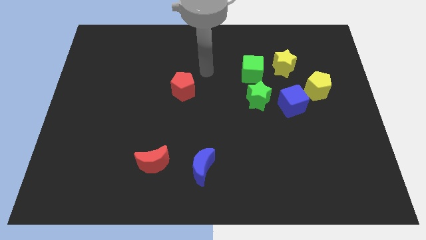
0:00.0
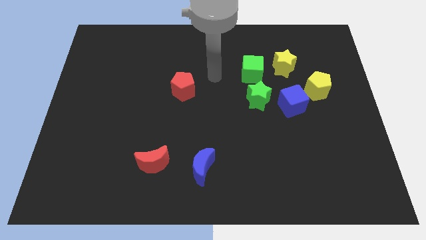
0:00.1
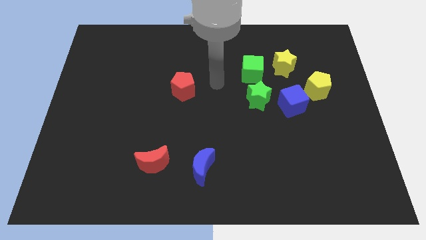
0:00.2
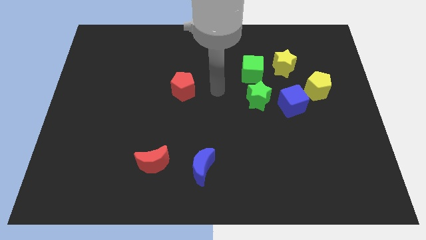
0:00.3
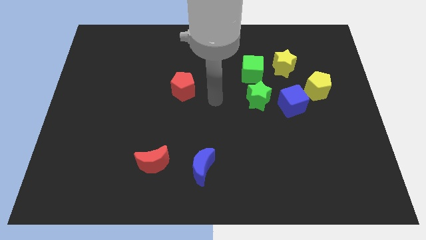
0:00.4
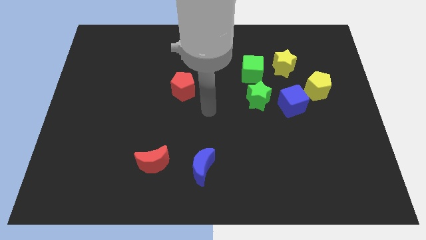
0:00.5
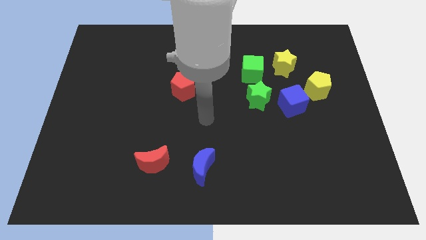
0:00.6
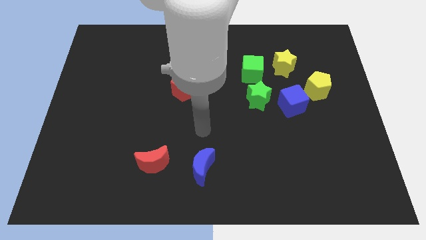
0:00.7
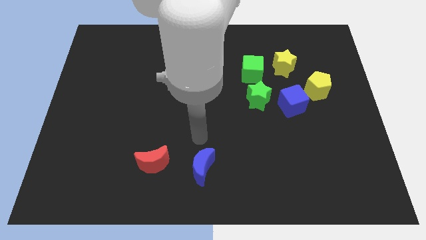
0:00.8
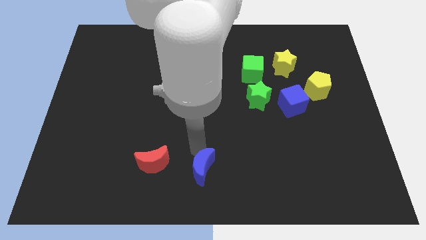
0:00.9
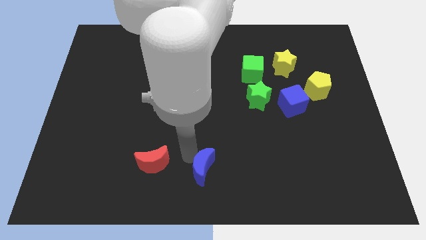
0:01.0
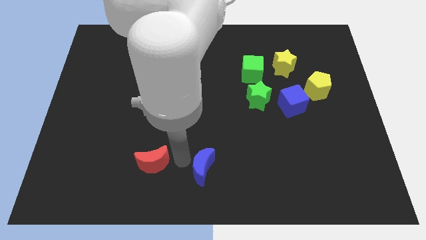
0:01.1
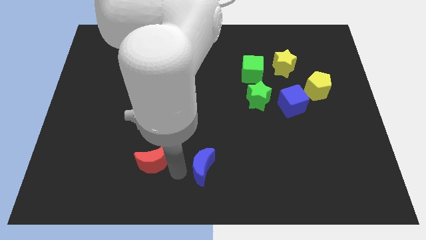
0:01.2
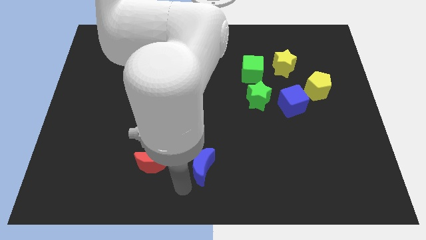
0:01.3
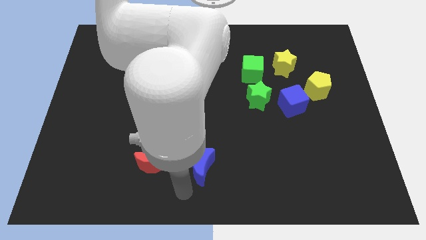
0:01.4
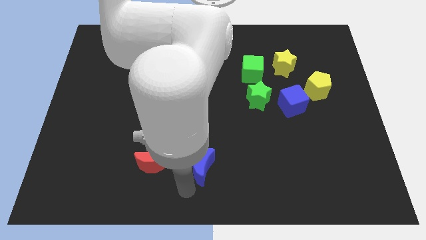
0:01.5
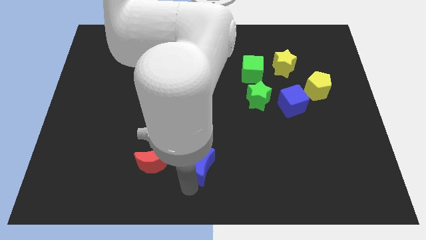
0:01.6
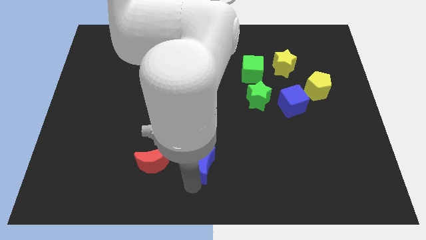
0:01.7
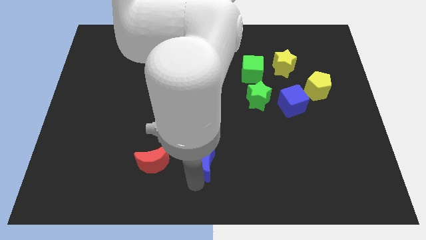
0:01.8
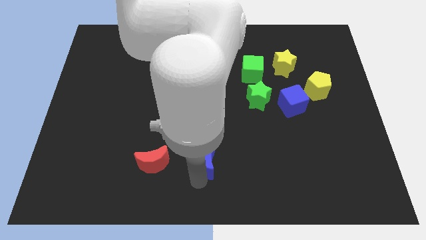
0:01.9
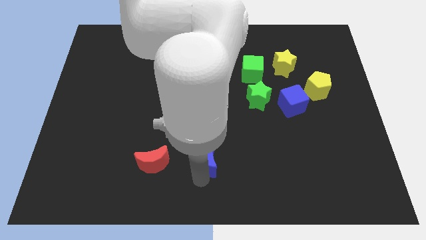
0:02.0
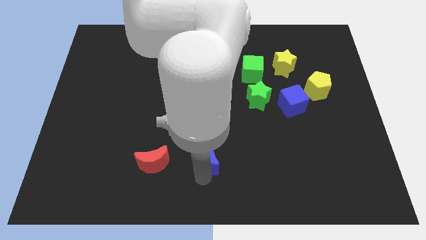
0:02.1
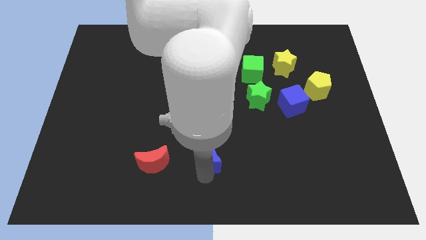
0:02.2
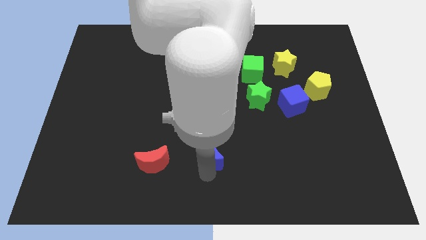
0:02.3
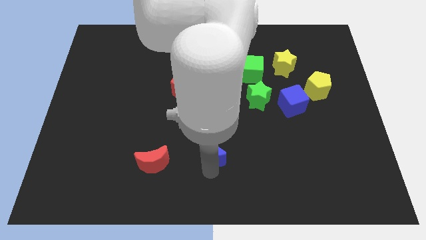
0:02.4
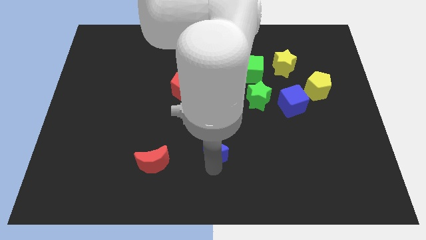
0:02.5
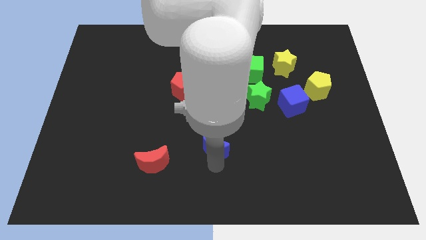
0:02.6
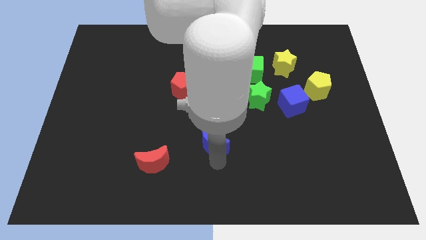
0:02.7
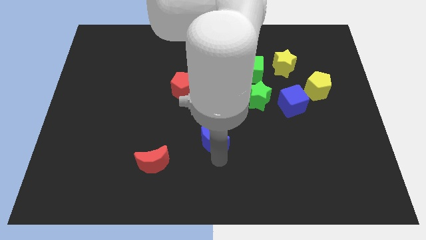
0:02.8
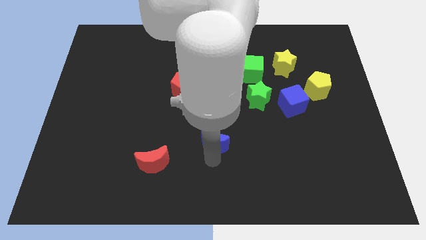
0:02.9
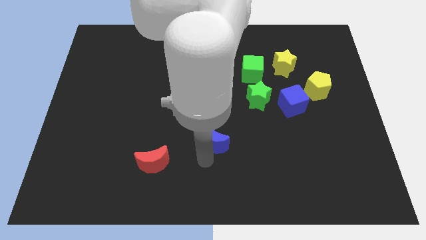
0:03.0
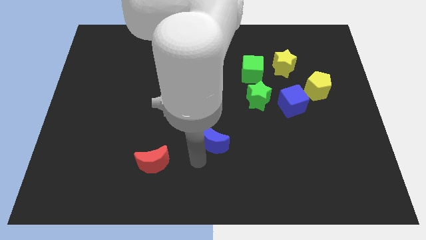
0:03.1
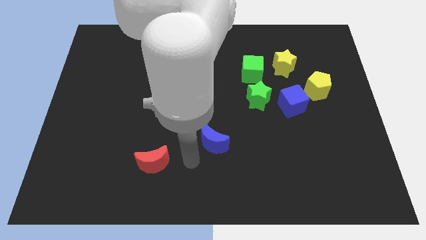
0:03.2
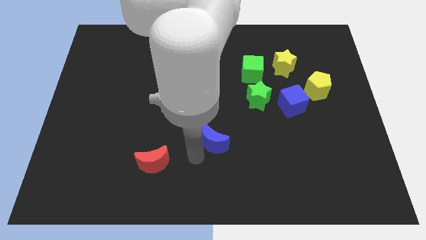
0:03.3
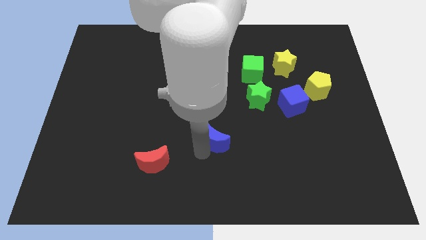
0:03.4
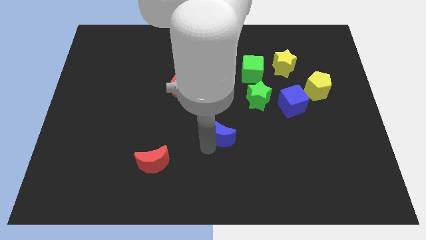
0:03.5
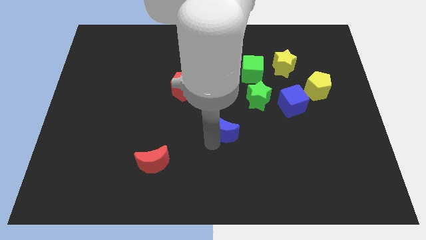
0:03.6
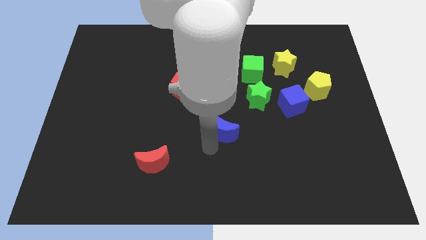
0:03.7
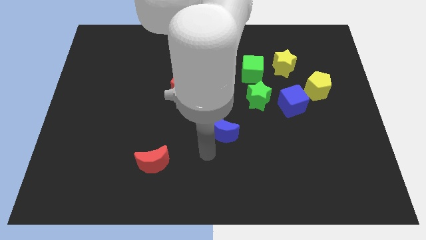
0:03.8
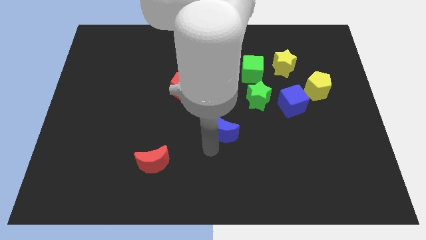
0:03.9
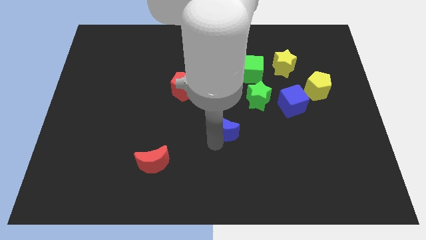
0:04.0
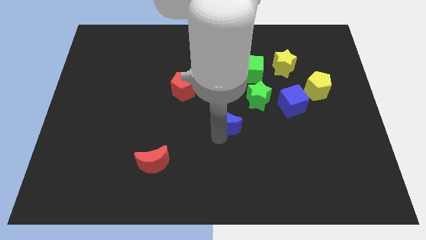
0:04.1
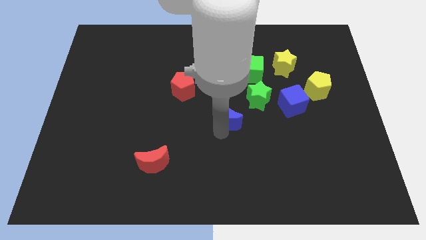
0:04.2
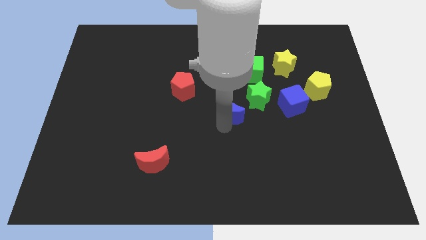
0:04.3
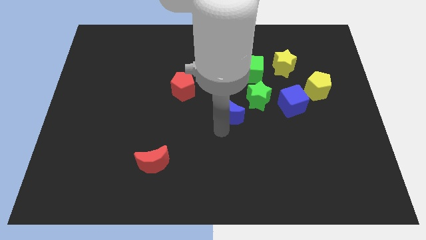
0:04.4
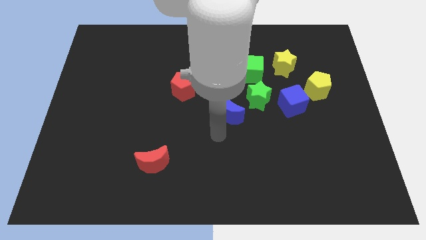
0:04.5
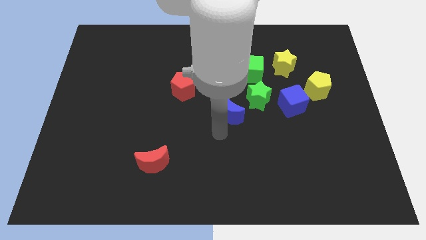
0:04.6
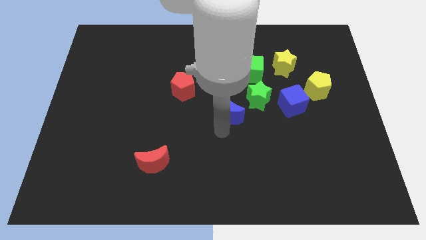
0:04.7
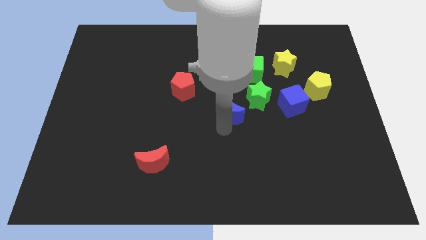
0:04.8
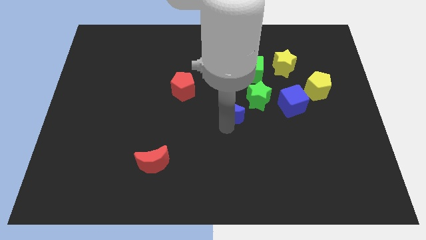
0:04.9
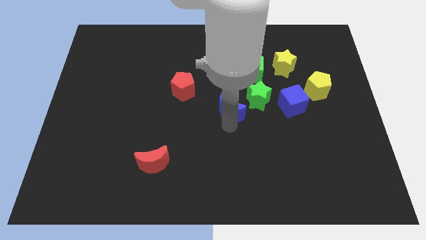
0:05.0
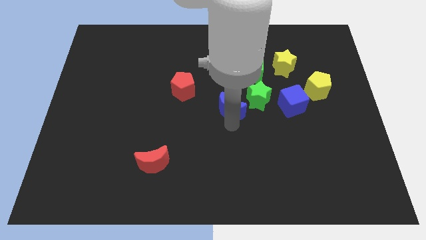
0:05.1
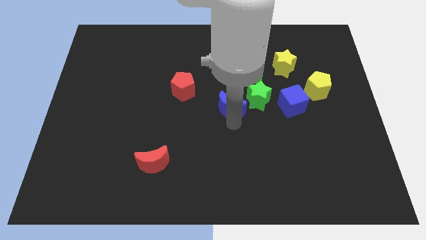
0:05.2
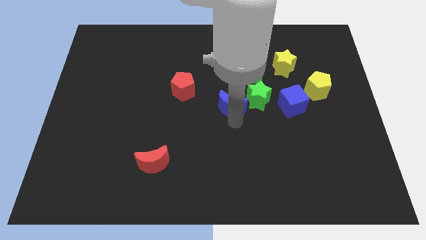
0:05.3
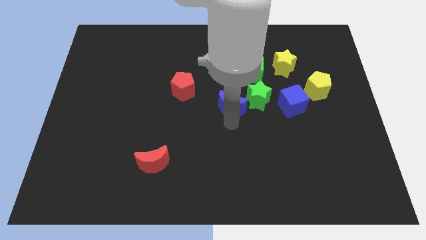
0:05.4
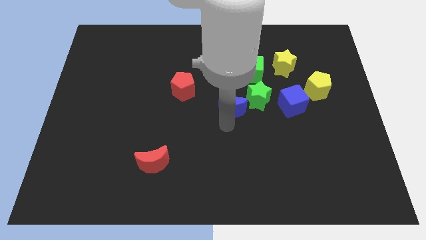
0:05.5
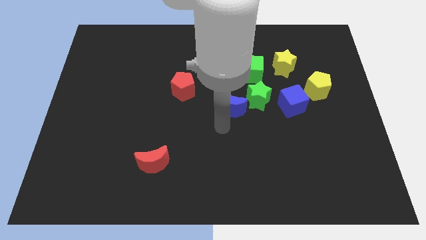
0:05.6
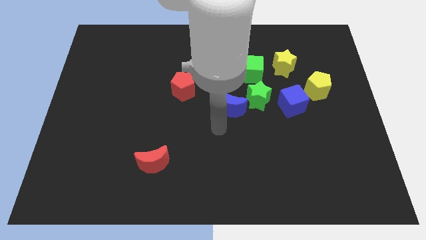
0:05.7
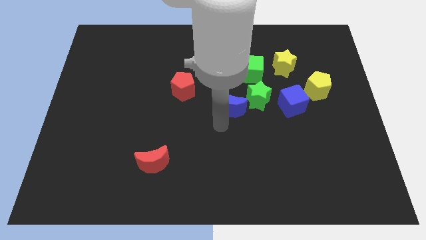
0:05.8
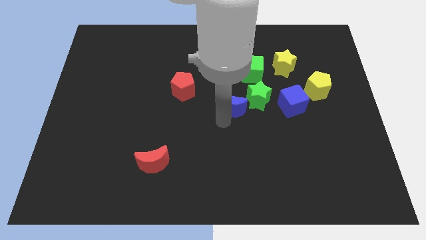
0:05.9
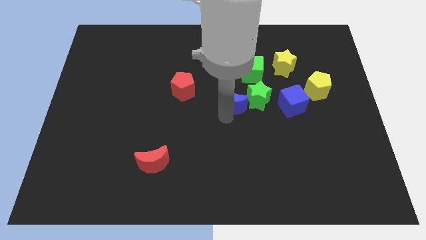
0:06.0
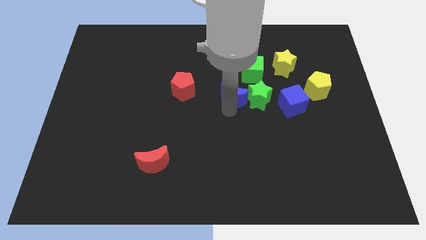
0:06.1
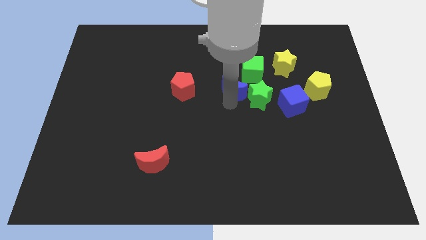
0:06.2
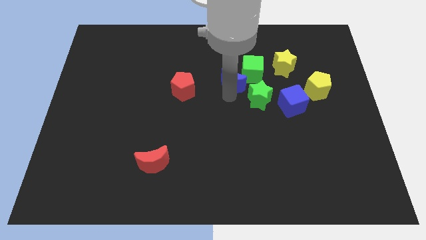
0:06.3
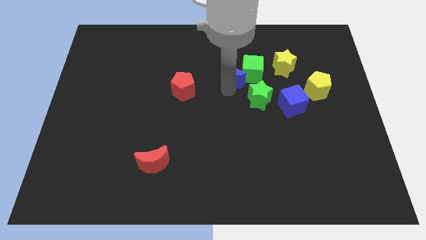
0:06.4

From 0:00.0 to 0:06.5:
slide the blue moon next to the green cube
